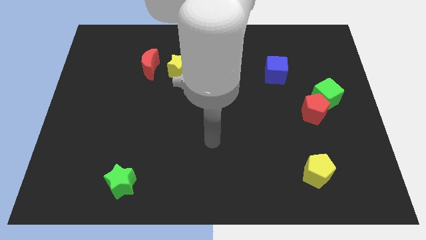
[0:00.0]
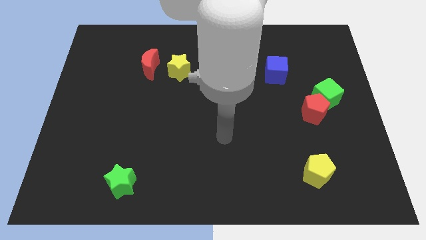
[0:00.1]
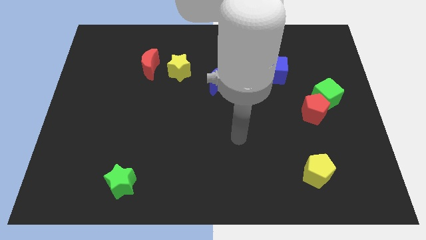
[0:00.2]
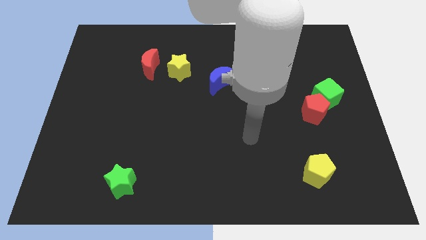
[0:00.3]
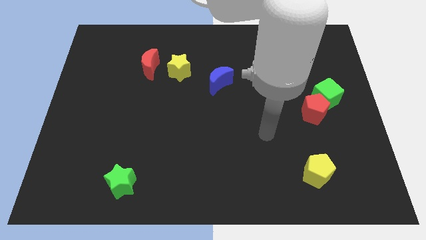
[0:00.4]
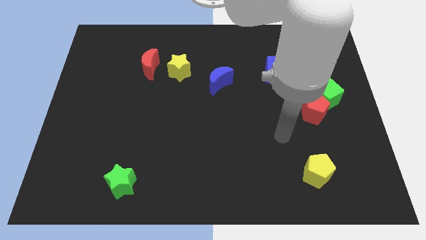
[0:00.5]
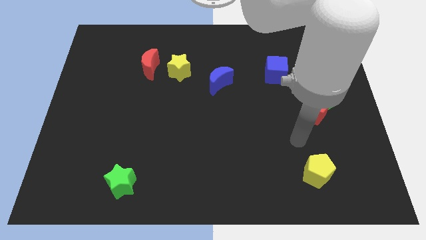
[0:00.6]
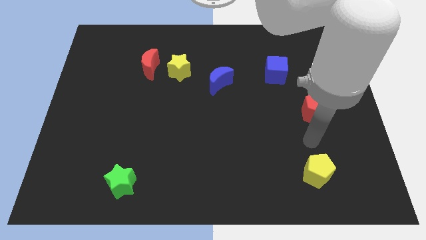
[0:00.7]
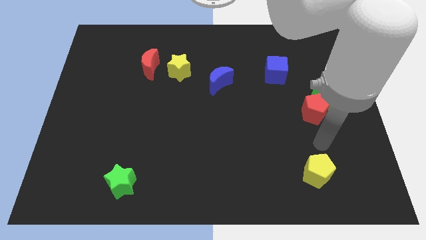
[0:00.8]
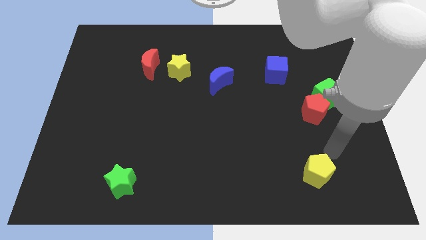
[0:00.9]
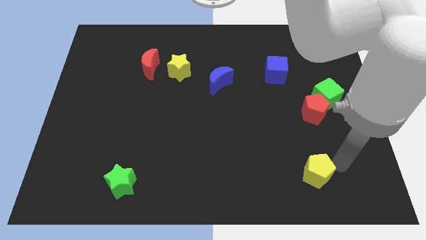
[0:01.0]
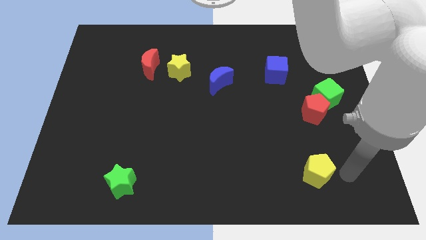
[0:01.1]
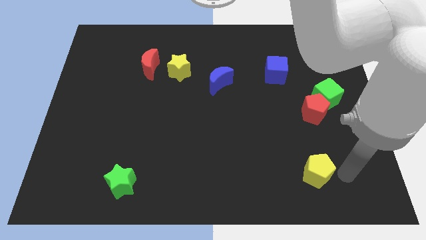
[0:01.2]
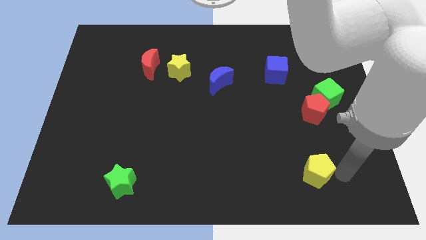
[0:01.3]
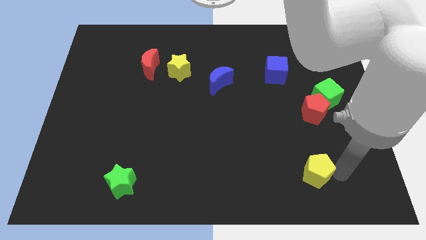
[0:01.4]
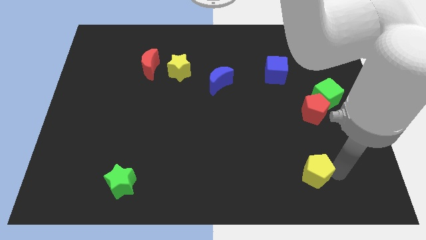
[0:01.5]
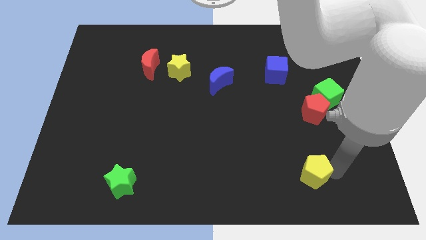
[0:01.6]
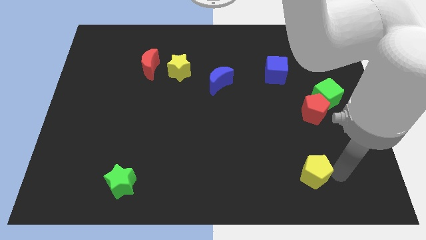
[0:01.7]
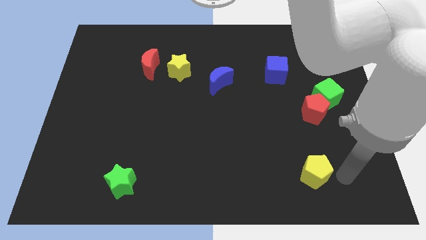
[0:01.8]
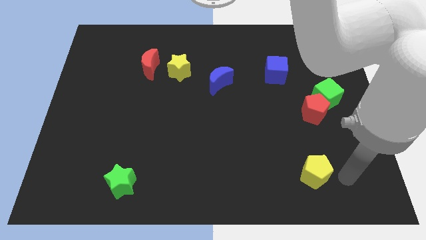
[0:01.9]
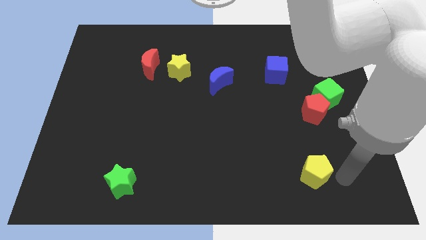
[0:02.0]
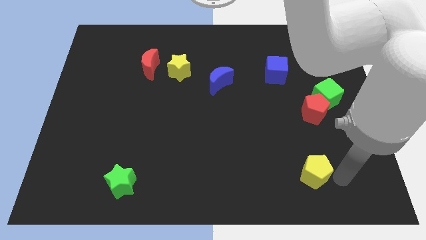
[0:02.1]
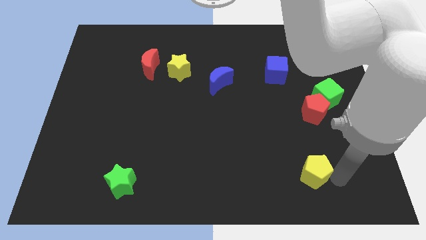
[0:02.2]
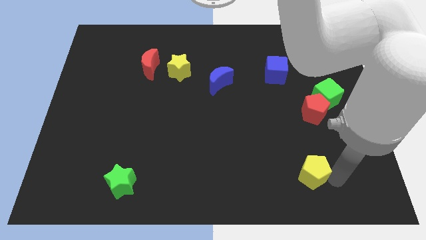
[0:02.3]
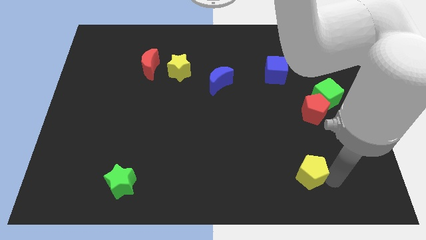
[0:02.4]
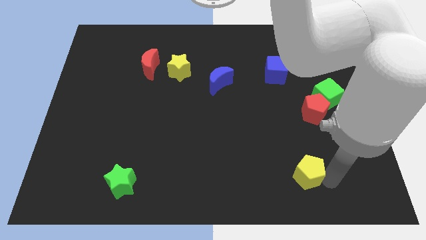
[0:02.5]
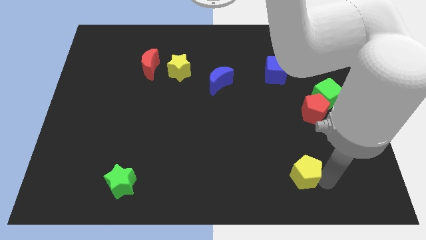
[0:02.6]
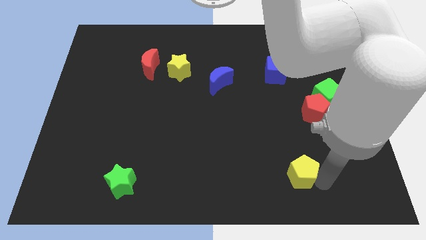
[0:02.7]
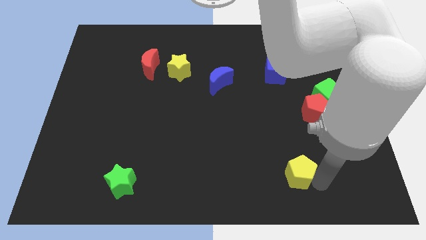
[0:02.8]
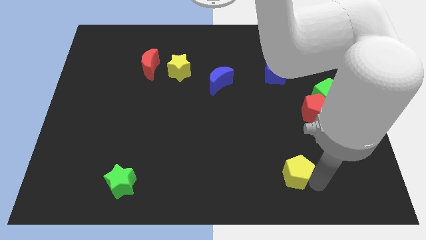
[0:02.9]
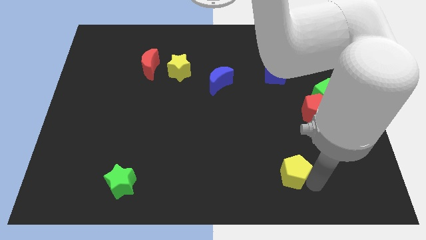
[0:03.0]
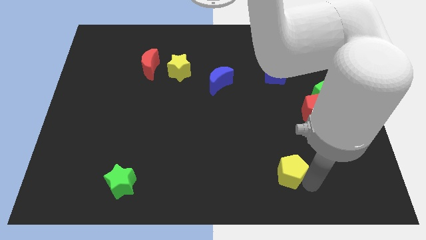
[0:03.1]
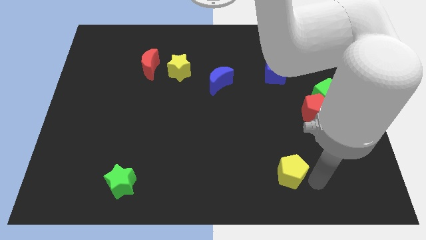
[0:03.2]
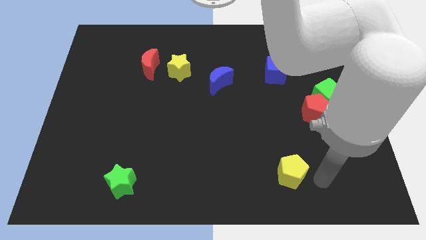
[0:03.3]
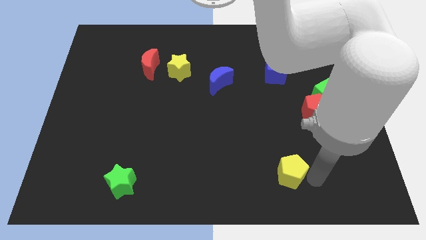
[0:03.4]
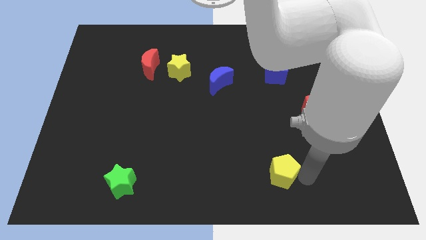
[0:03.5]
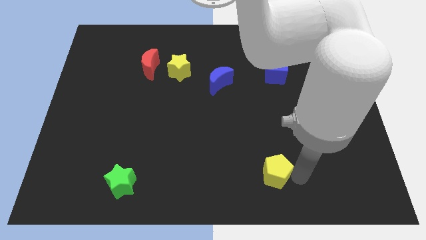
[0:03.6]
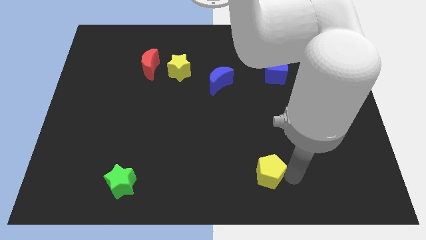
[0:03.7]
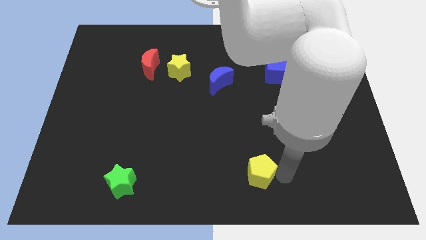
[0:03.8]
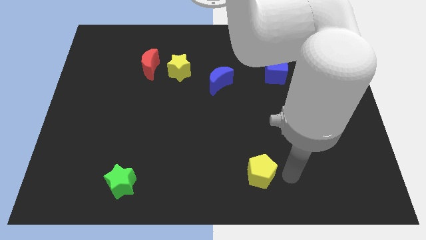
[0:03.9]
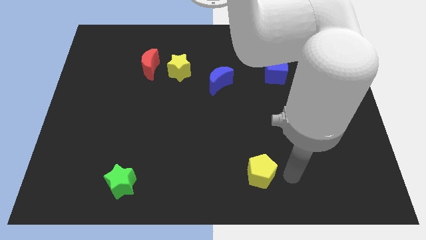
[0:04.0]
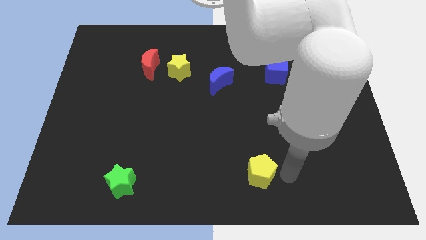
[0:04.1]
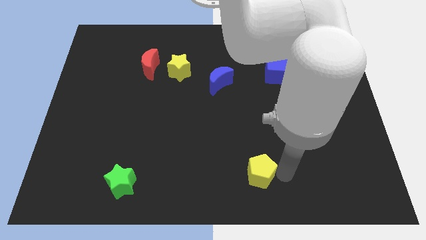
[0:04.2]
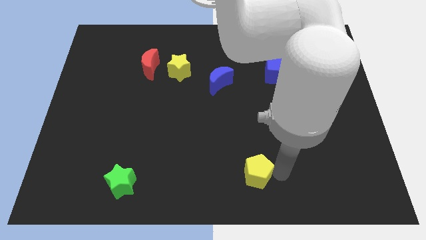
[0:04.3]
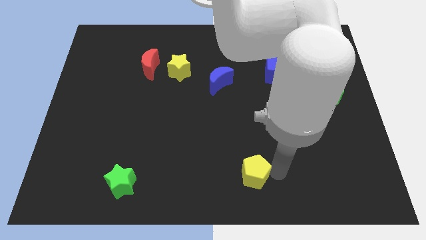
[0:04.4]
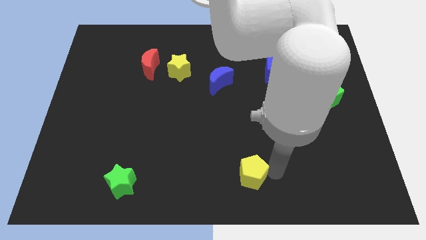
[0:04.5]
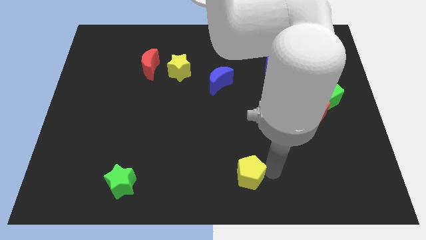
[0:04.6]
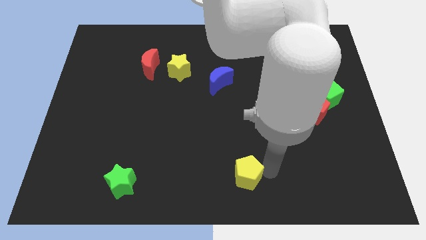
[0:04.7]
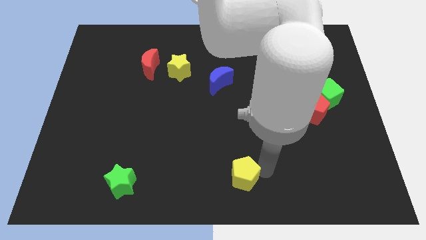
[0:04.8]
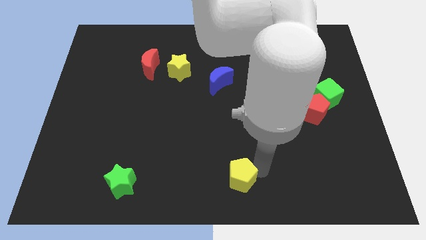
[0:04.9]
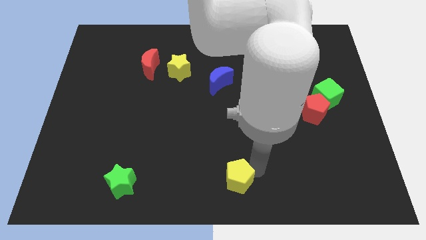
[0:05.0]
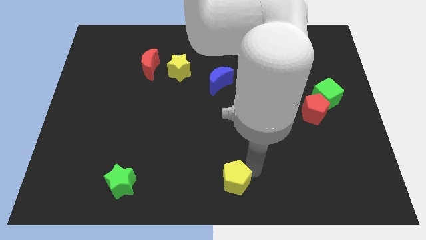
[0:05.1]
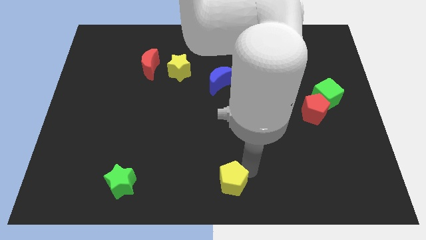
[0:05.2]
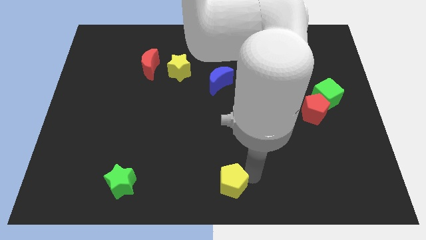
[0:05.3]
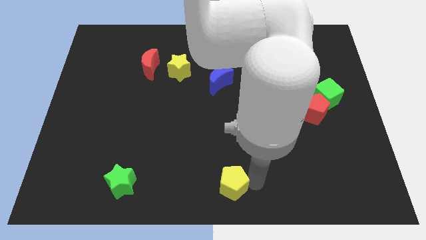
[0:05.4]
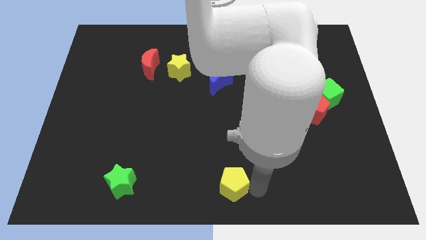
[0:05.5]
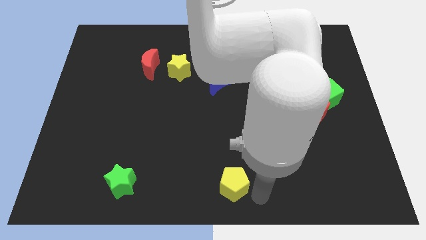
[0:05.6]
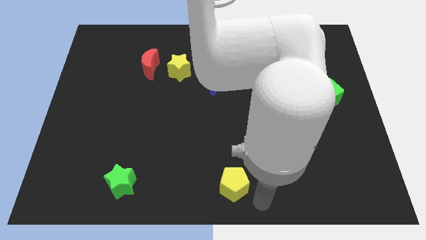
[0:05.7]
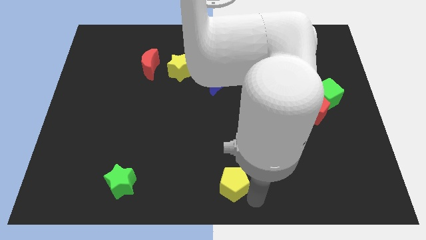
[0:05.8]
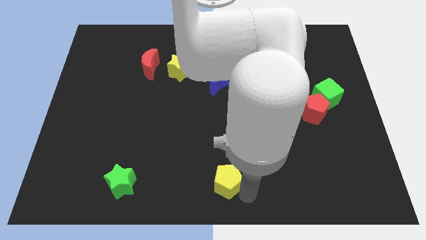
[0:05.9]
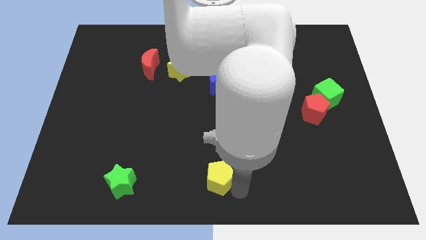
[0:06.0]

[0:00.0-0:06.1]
move the yellow pentagon left

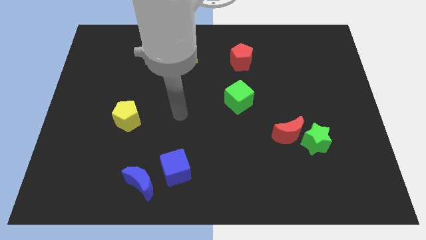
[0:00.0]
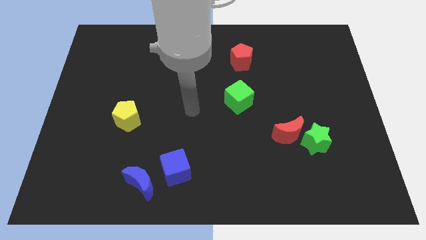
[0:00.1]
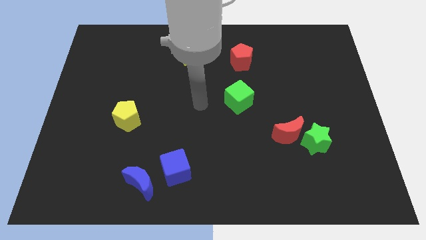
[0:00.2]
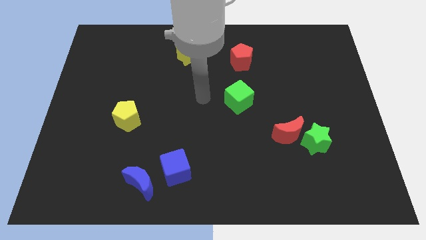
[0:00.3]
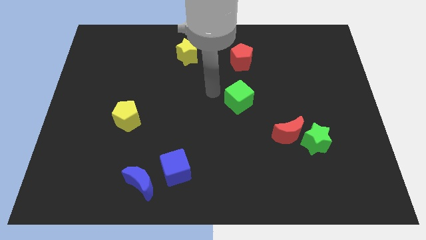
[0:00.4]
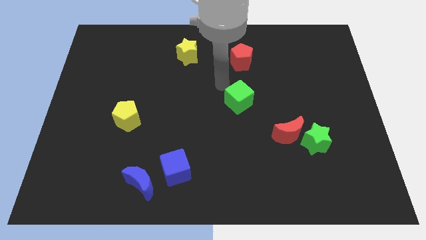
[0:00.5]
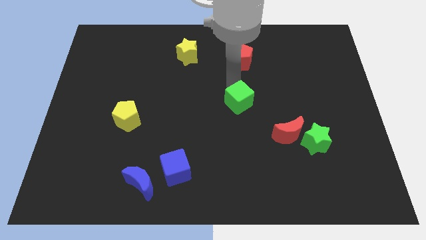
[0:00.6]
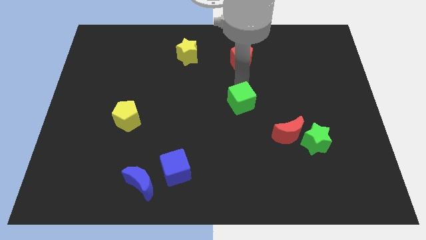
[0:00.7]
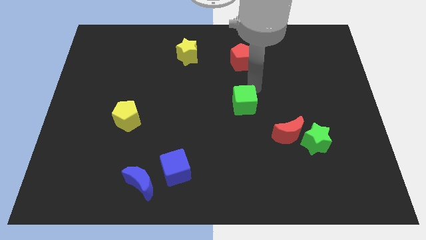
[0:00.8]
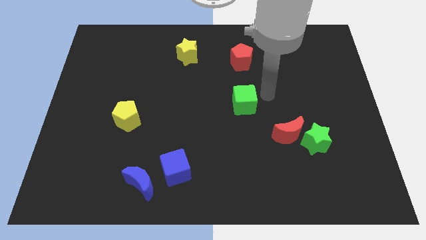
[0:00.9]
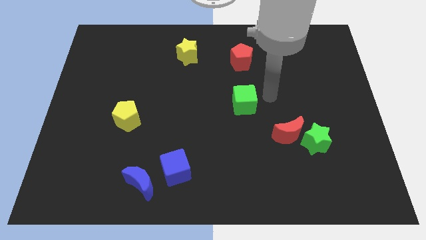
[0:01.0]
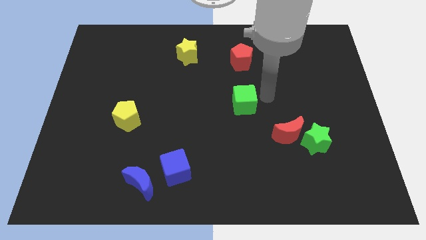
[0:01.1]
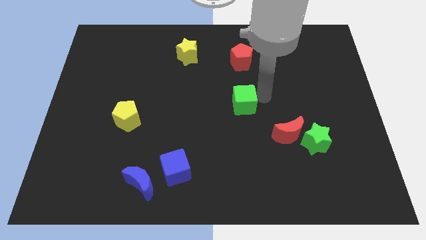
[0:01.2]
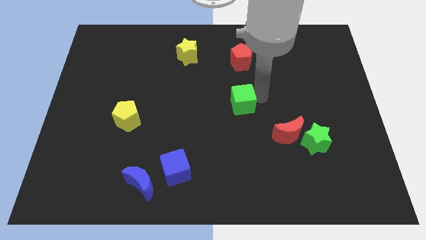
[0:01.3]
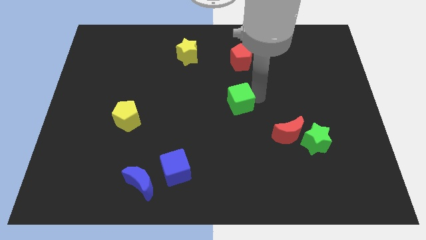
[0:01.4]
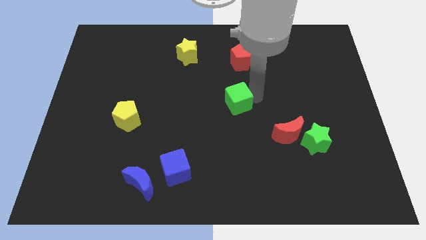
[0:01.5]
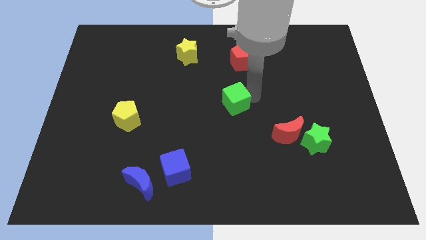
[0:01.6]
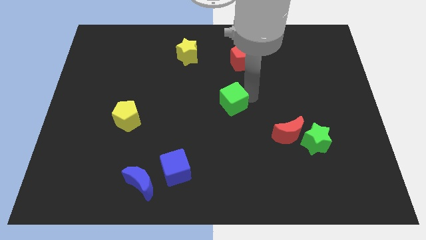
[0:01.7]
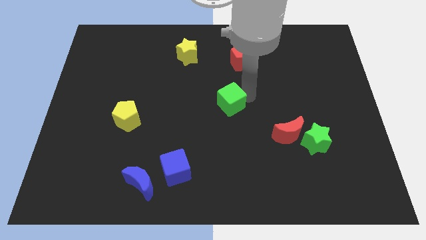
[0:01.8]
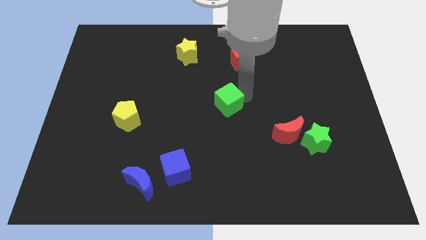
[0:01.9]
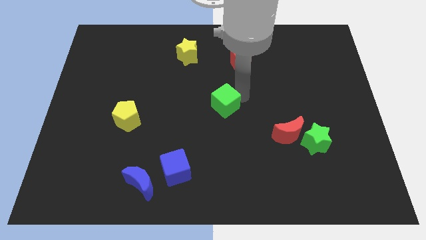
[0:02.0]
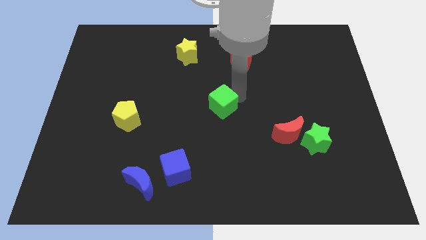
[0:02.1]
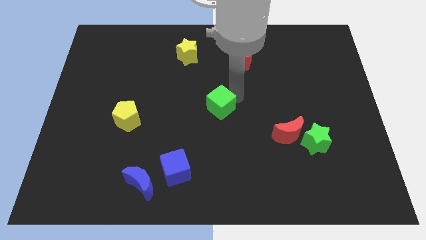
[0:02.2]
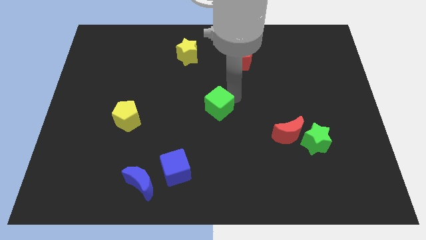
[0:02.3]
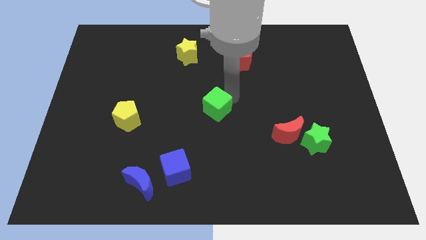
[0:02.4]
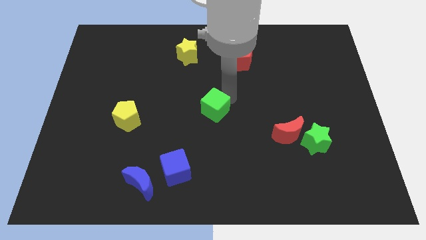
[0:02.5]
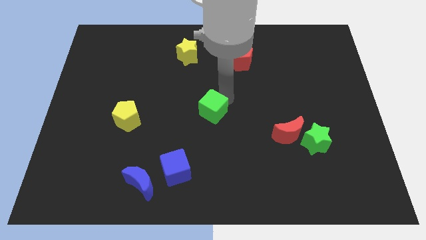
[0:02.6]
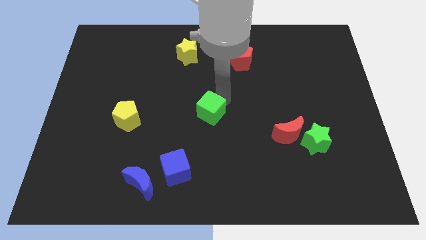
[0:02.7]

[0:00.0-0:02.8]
slide the green cube slightly down and left
